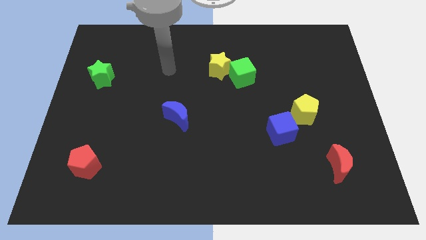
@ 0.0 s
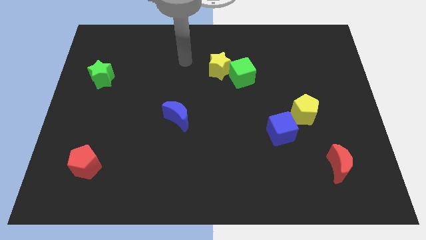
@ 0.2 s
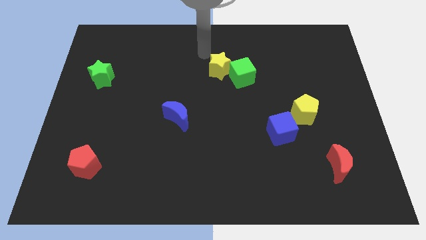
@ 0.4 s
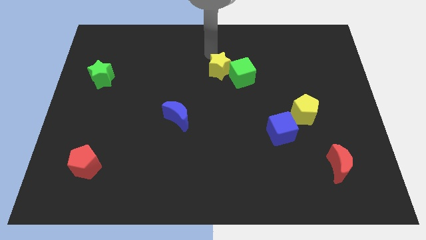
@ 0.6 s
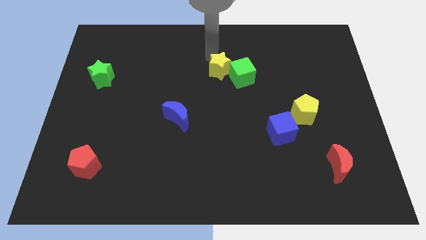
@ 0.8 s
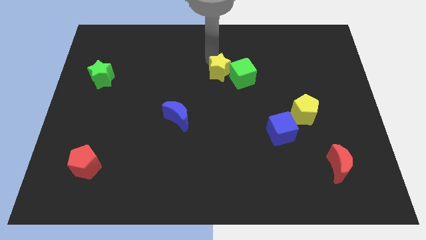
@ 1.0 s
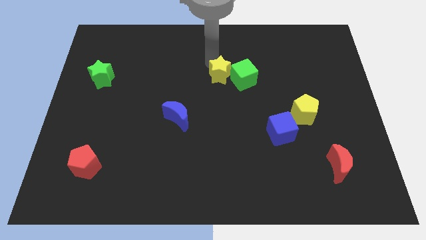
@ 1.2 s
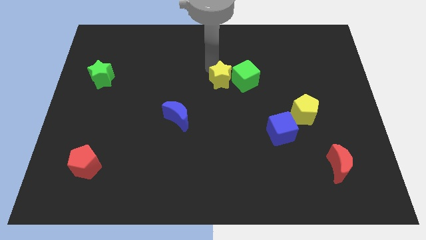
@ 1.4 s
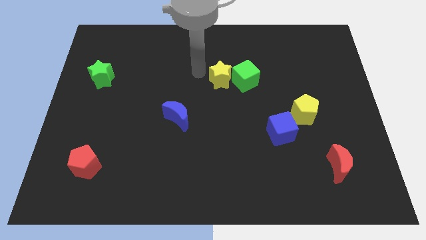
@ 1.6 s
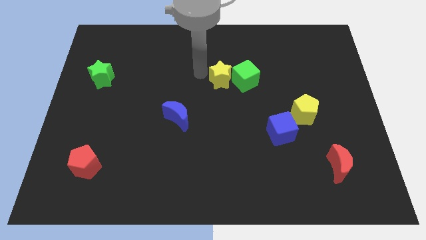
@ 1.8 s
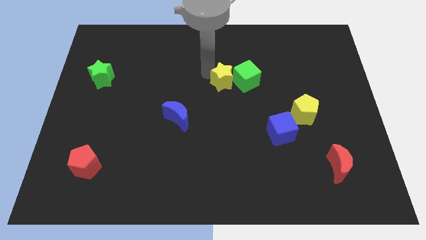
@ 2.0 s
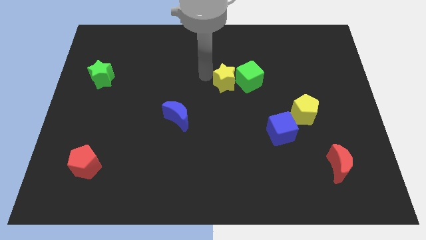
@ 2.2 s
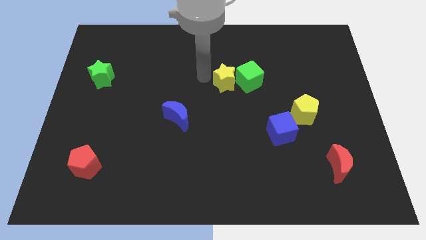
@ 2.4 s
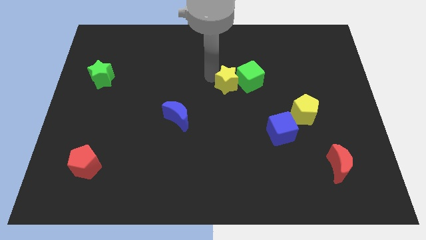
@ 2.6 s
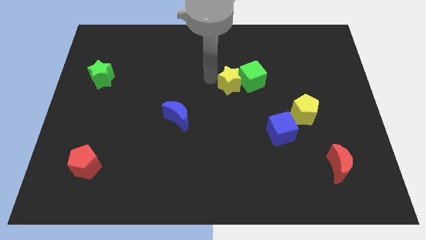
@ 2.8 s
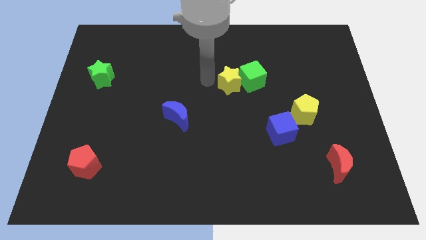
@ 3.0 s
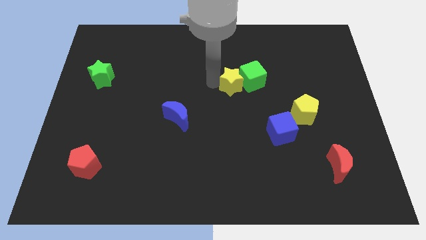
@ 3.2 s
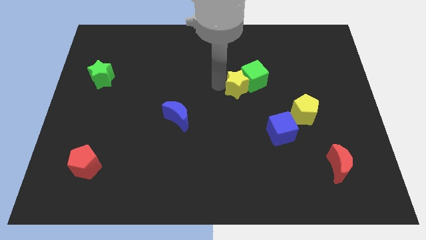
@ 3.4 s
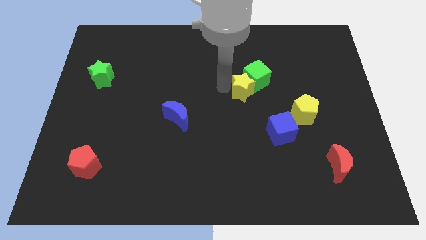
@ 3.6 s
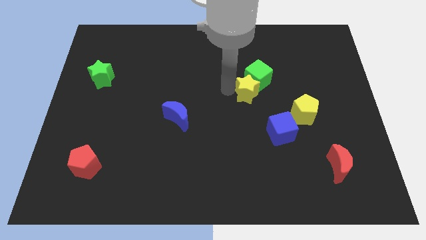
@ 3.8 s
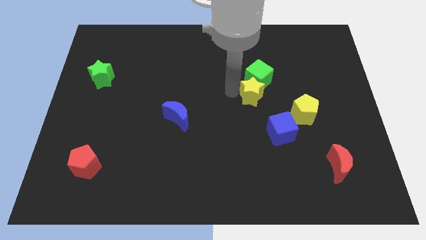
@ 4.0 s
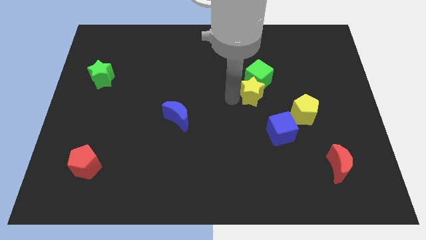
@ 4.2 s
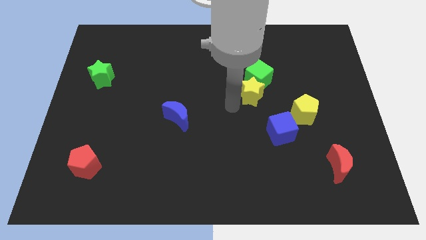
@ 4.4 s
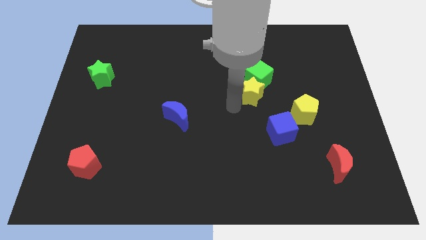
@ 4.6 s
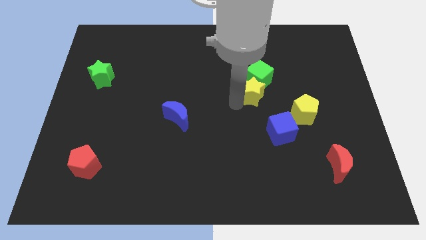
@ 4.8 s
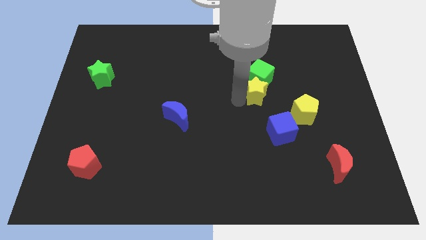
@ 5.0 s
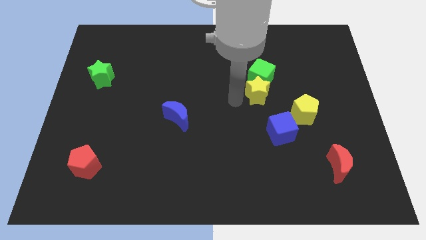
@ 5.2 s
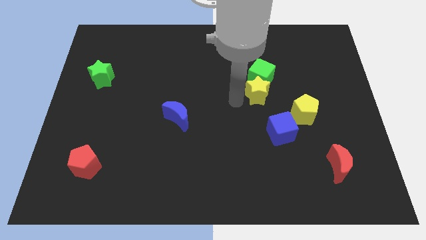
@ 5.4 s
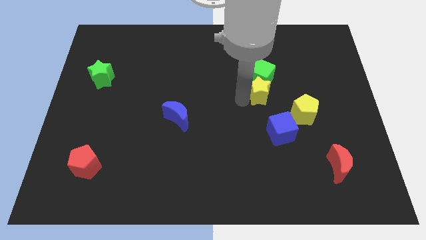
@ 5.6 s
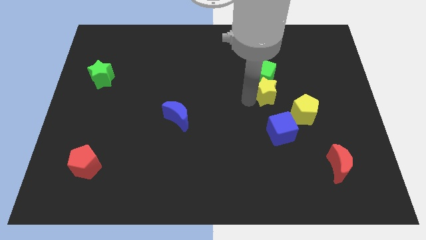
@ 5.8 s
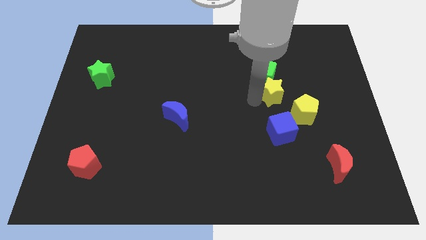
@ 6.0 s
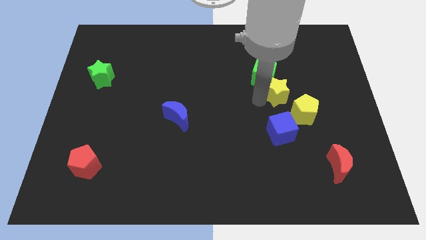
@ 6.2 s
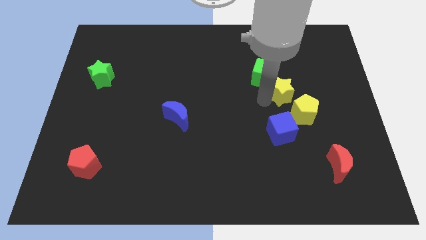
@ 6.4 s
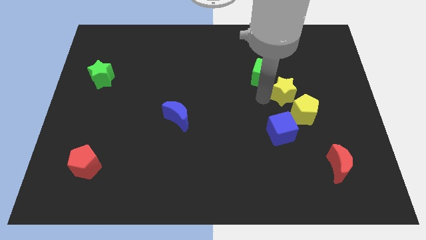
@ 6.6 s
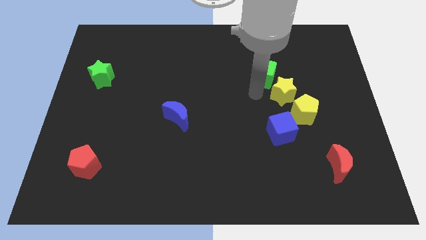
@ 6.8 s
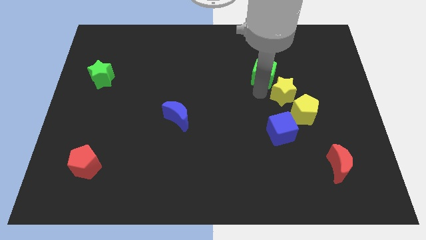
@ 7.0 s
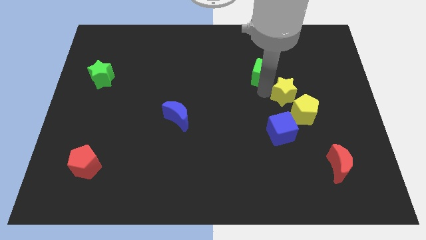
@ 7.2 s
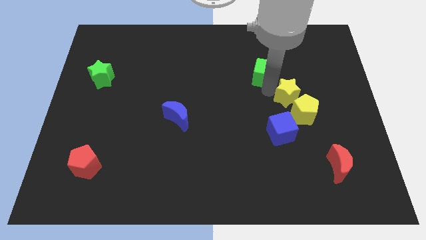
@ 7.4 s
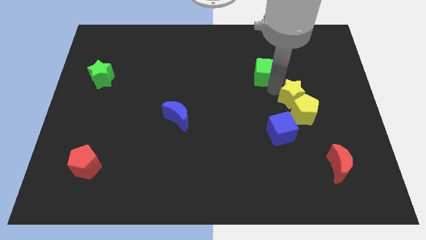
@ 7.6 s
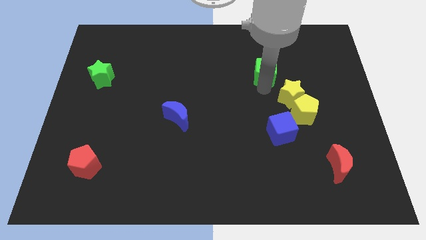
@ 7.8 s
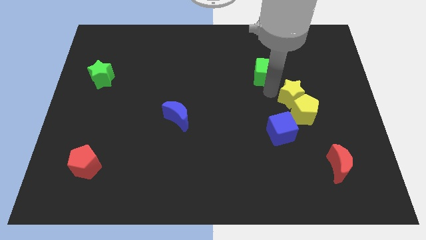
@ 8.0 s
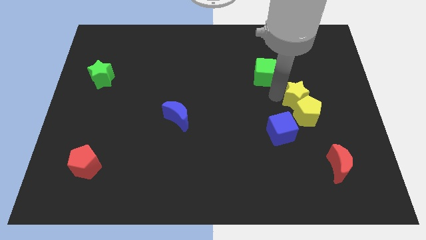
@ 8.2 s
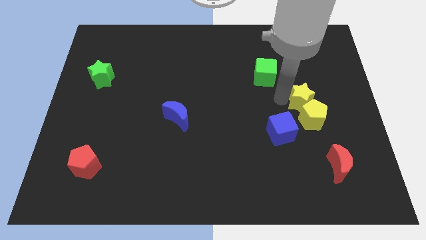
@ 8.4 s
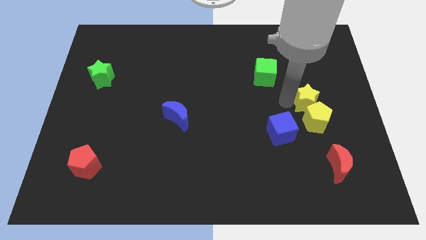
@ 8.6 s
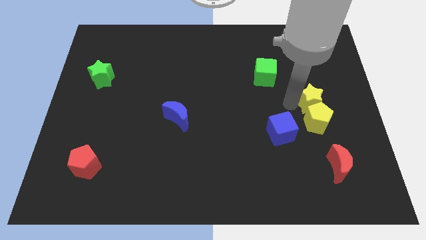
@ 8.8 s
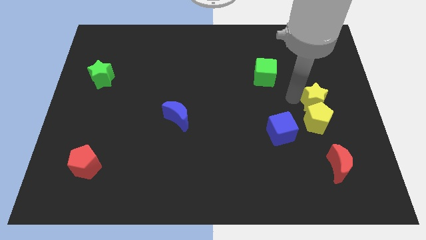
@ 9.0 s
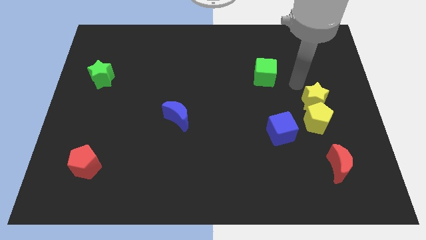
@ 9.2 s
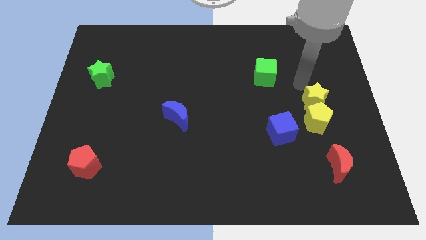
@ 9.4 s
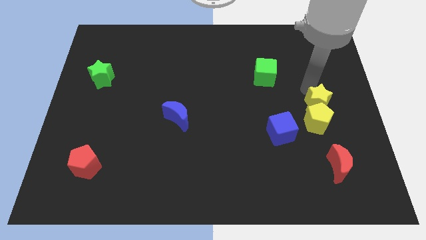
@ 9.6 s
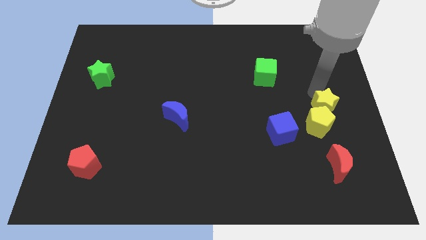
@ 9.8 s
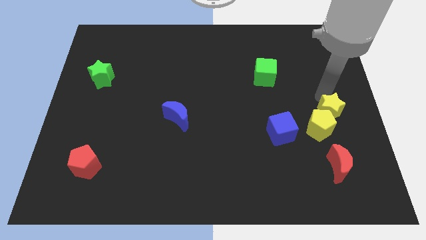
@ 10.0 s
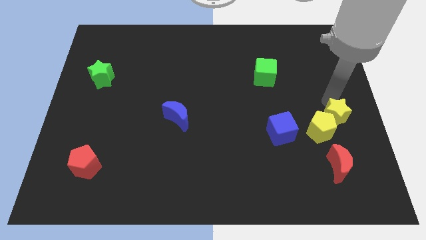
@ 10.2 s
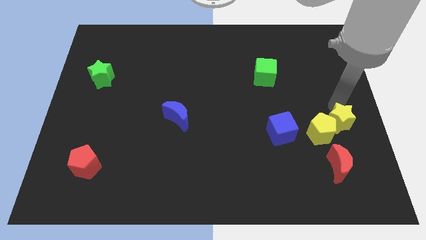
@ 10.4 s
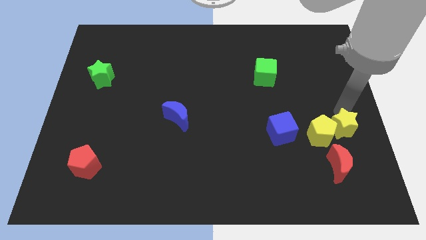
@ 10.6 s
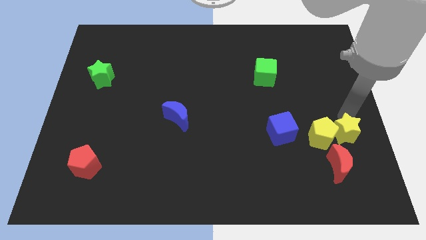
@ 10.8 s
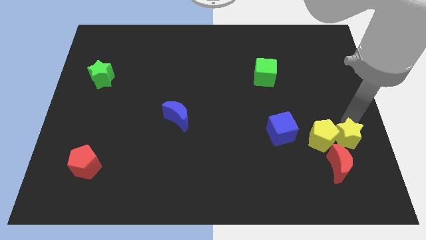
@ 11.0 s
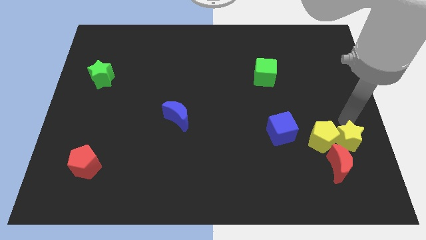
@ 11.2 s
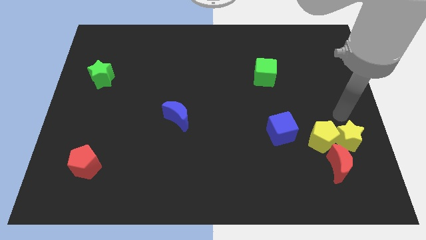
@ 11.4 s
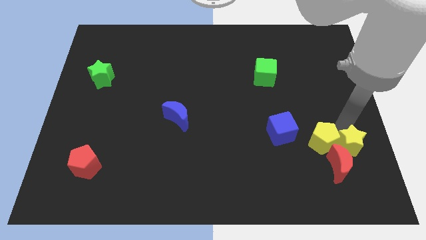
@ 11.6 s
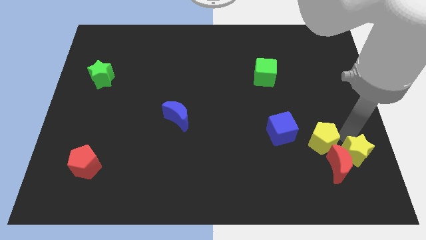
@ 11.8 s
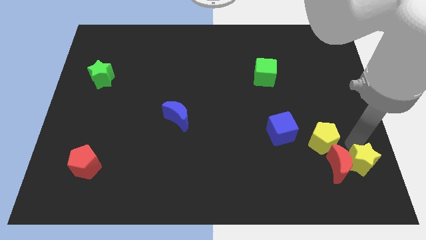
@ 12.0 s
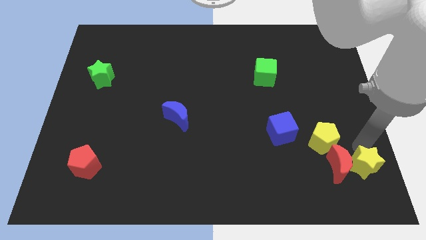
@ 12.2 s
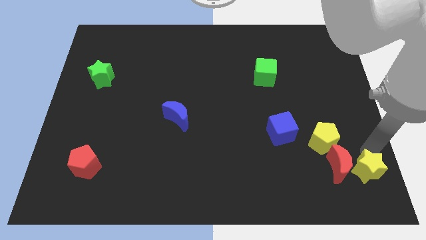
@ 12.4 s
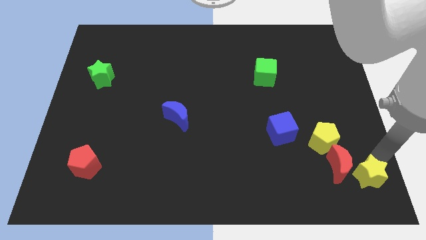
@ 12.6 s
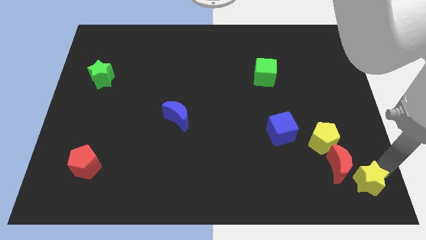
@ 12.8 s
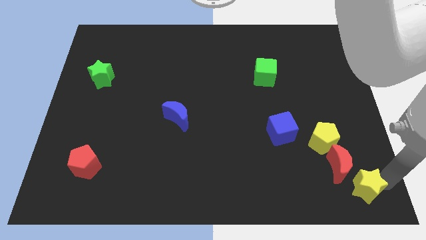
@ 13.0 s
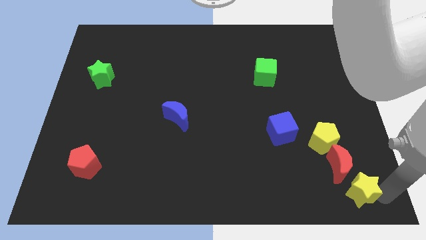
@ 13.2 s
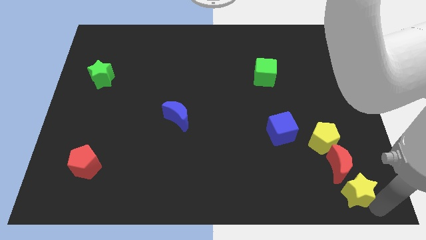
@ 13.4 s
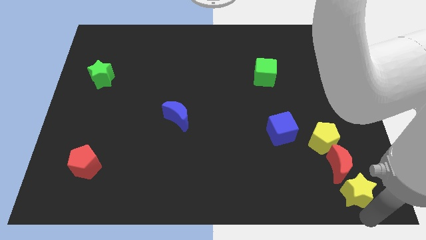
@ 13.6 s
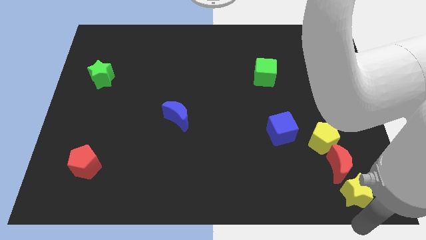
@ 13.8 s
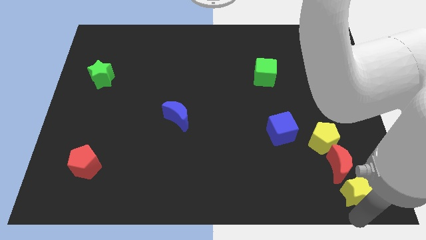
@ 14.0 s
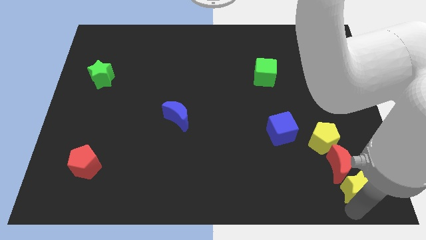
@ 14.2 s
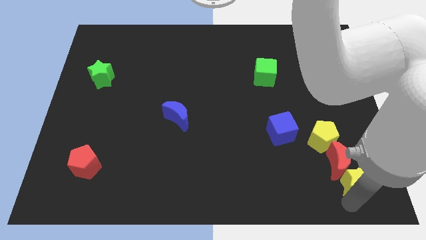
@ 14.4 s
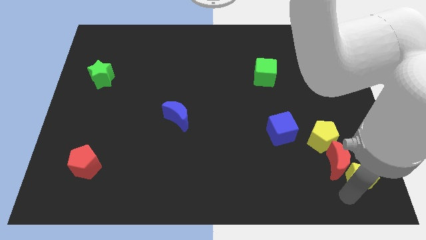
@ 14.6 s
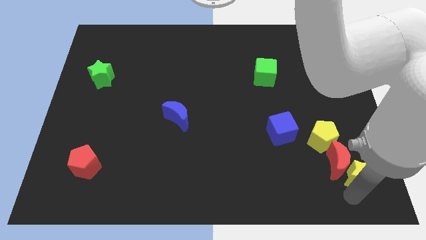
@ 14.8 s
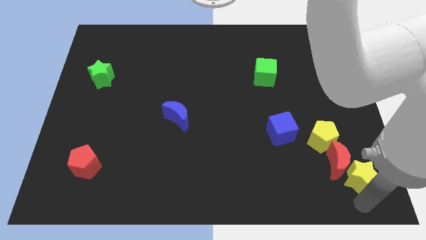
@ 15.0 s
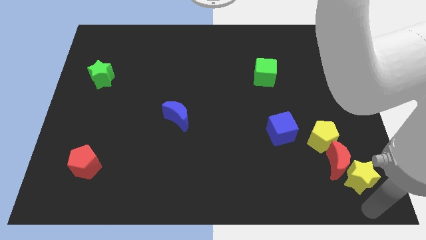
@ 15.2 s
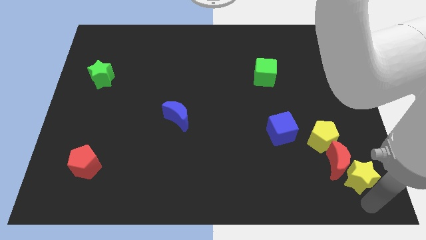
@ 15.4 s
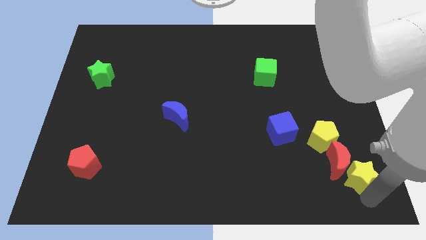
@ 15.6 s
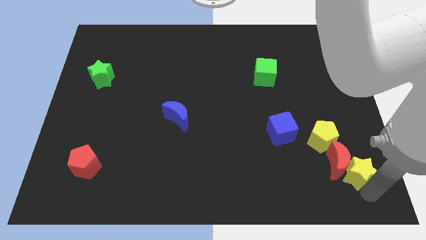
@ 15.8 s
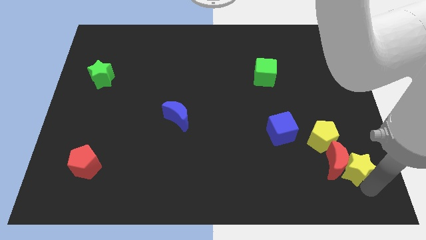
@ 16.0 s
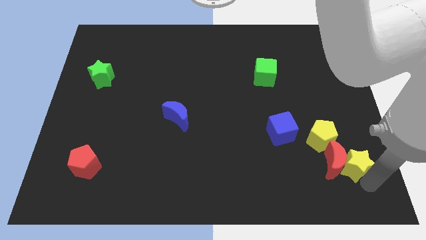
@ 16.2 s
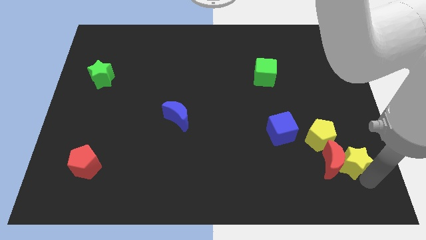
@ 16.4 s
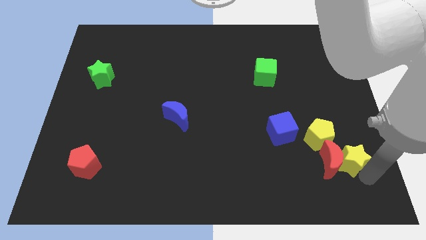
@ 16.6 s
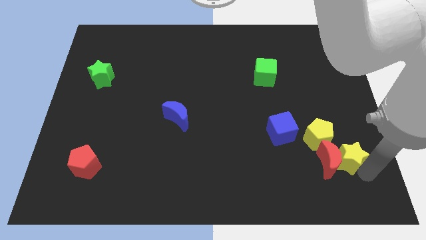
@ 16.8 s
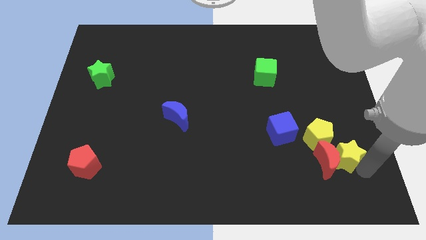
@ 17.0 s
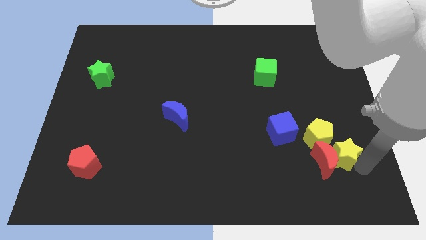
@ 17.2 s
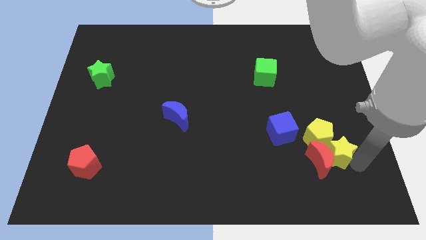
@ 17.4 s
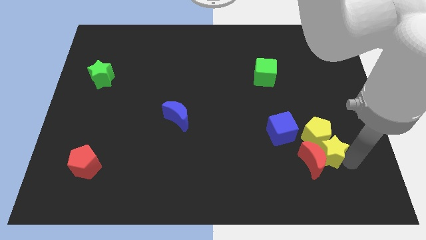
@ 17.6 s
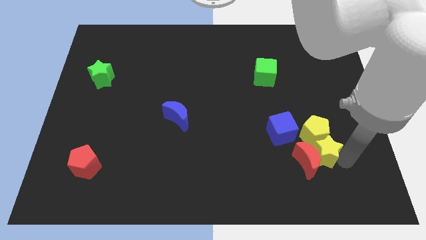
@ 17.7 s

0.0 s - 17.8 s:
slide the yellow star to the bottom right side of the yellow pentagon
